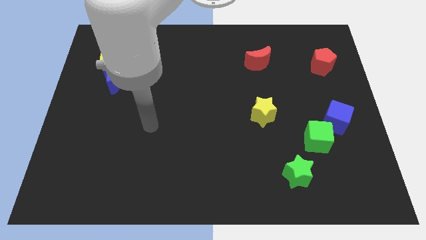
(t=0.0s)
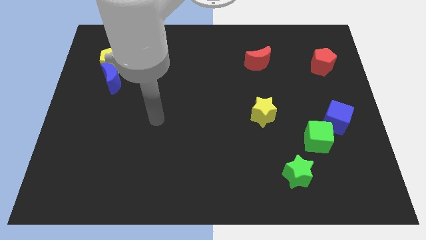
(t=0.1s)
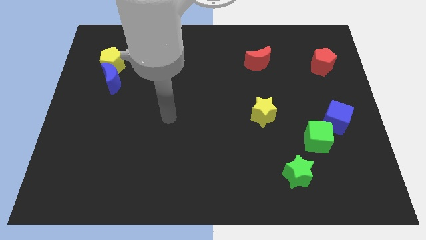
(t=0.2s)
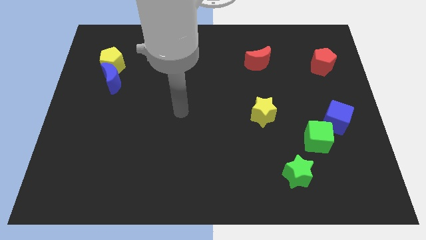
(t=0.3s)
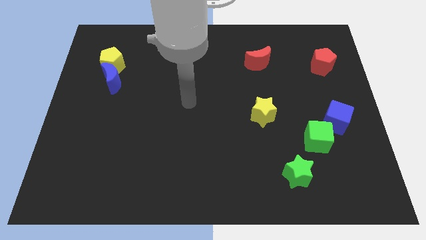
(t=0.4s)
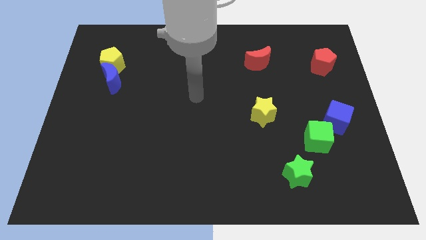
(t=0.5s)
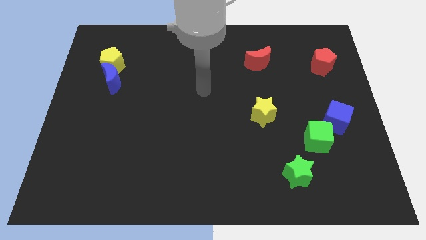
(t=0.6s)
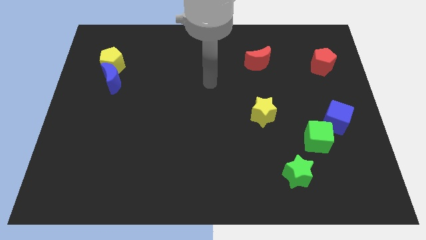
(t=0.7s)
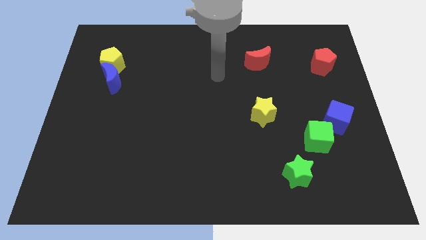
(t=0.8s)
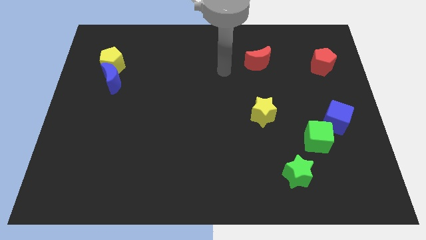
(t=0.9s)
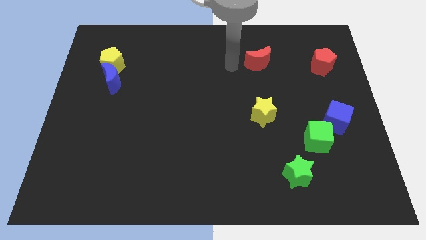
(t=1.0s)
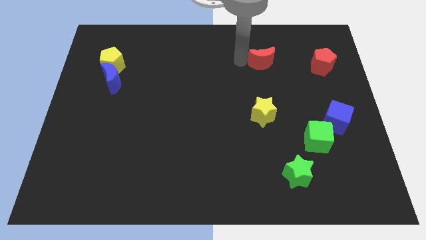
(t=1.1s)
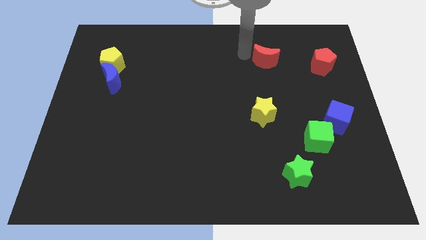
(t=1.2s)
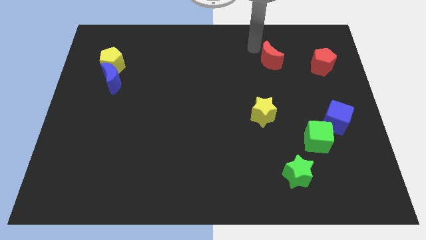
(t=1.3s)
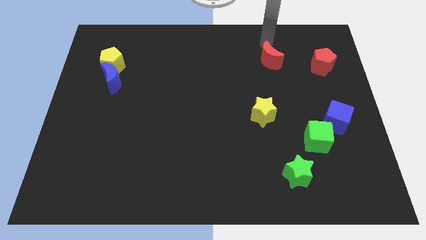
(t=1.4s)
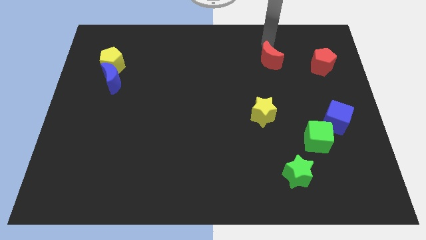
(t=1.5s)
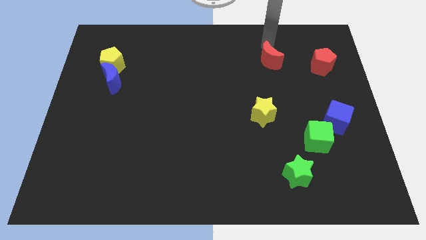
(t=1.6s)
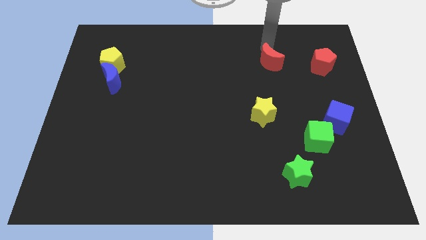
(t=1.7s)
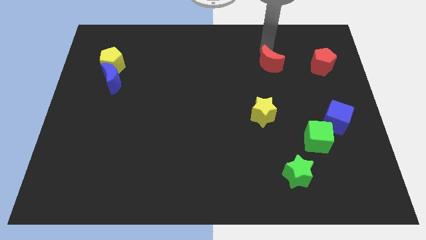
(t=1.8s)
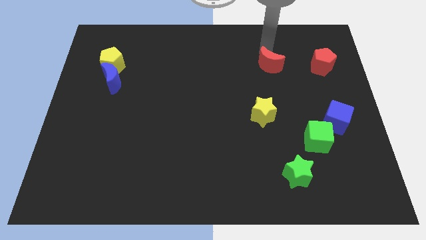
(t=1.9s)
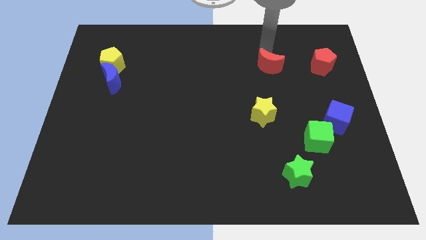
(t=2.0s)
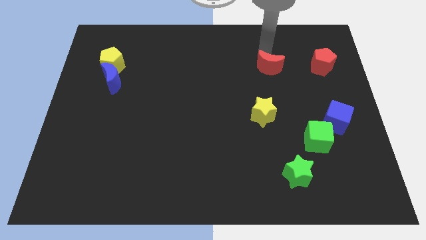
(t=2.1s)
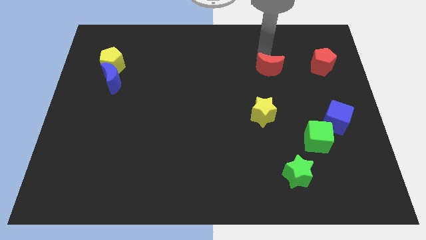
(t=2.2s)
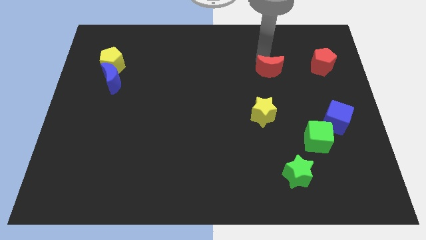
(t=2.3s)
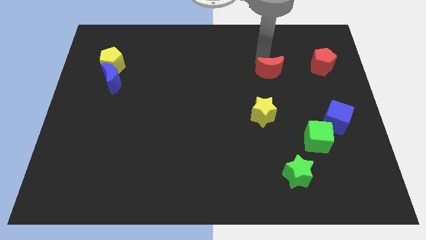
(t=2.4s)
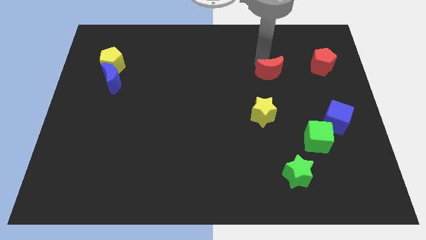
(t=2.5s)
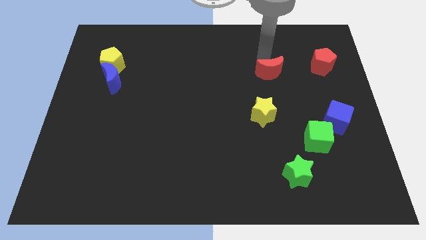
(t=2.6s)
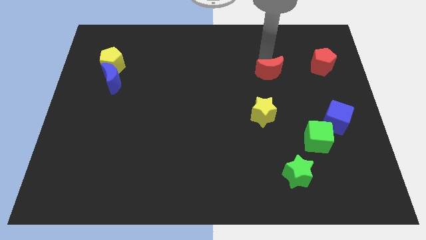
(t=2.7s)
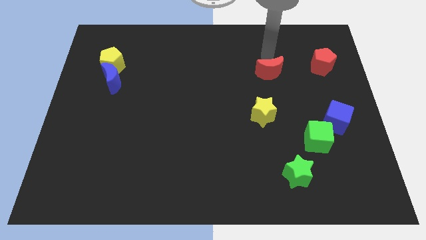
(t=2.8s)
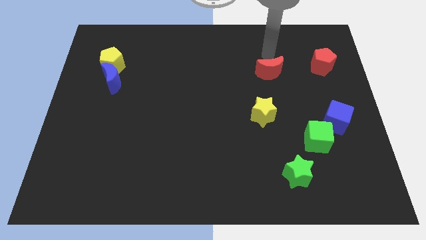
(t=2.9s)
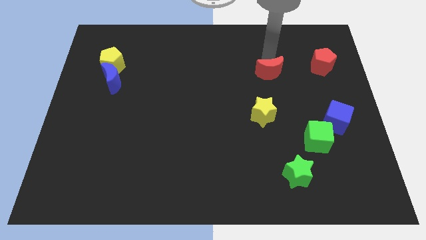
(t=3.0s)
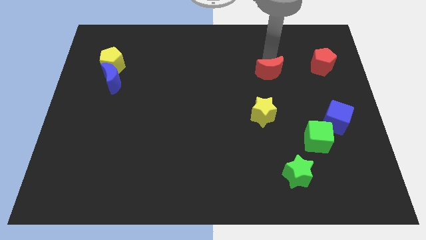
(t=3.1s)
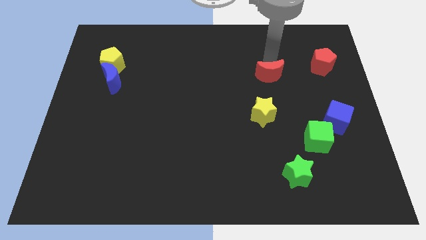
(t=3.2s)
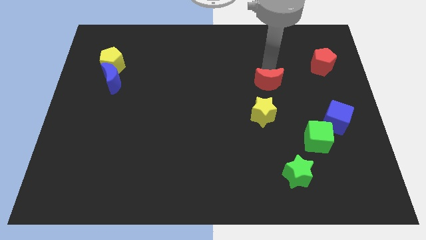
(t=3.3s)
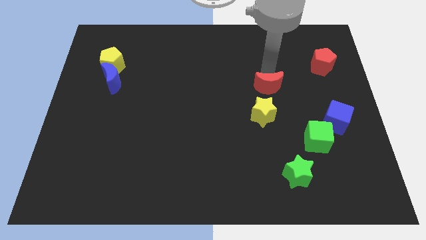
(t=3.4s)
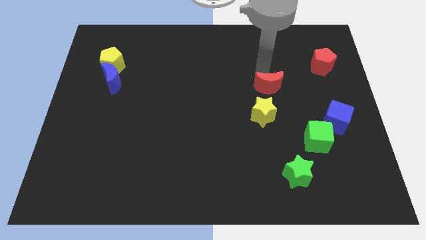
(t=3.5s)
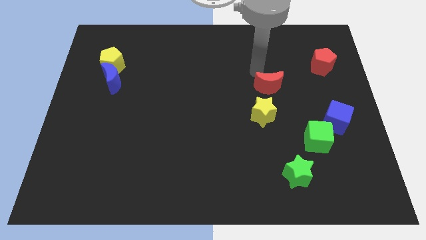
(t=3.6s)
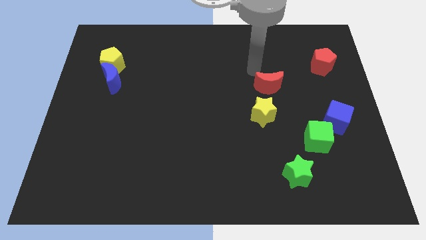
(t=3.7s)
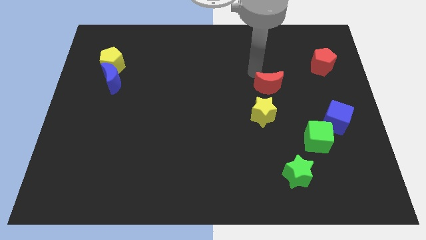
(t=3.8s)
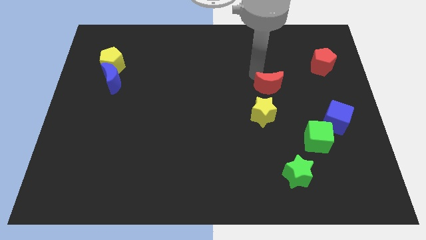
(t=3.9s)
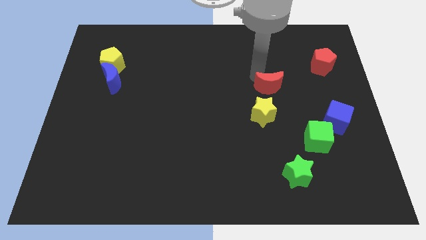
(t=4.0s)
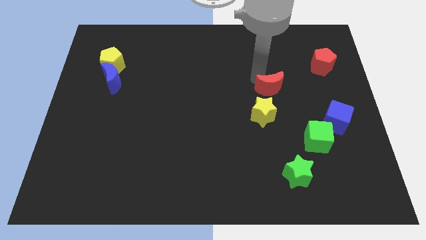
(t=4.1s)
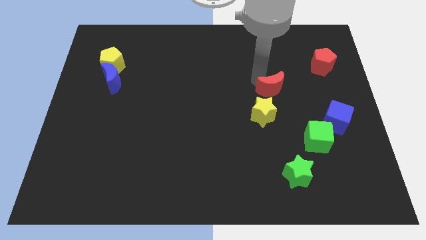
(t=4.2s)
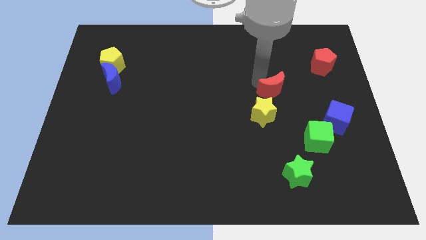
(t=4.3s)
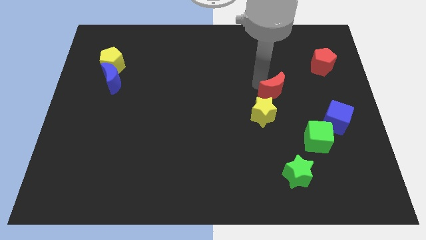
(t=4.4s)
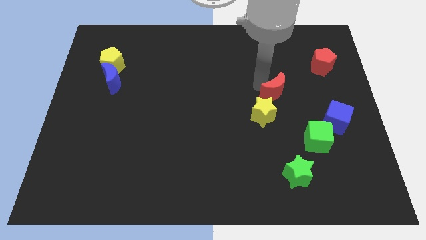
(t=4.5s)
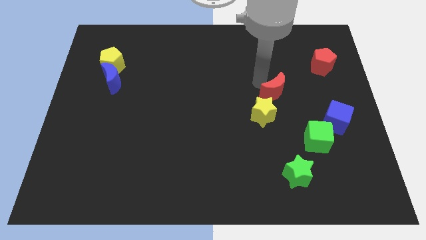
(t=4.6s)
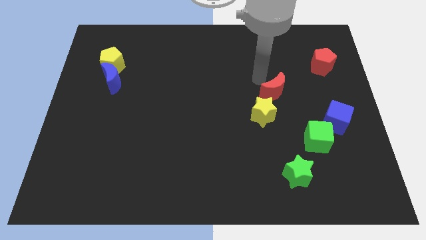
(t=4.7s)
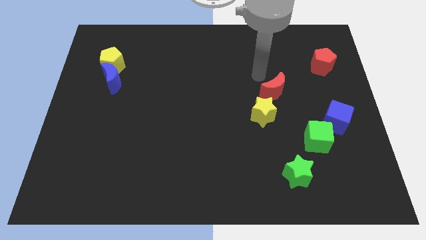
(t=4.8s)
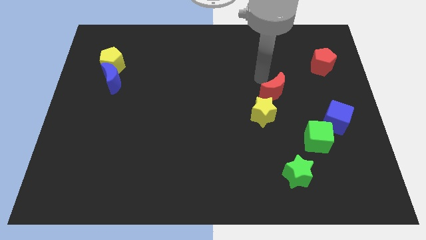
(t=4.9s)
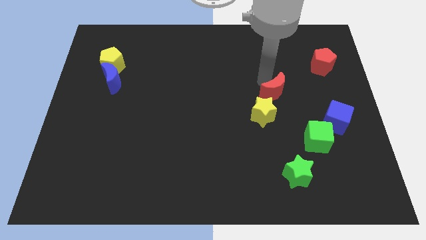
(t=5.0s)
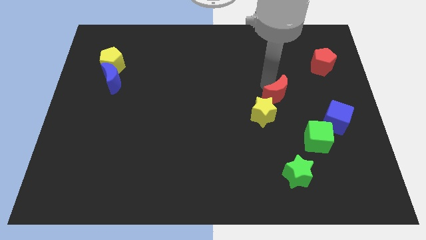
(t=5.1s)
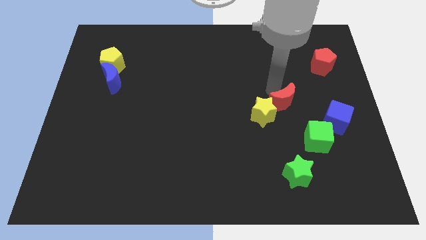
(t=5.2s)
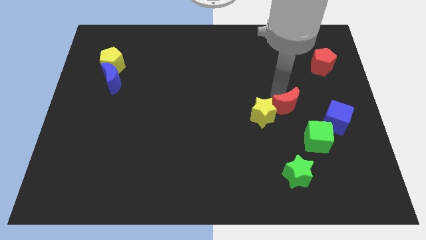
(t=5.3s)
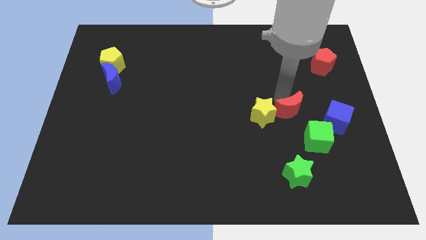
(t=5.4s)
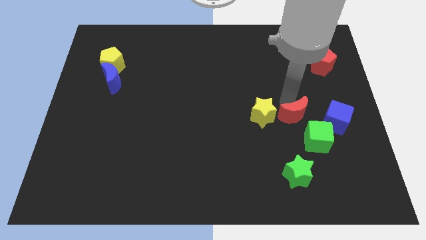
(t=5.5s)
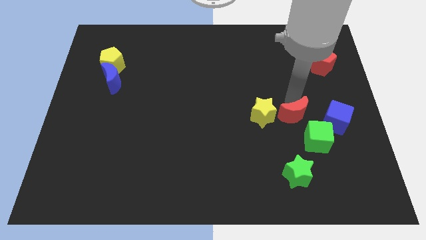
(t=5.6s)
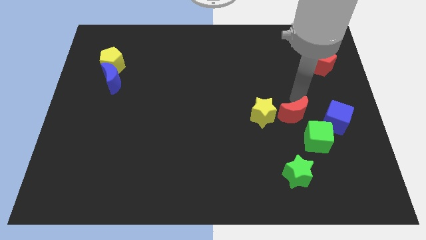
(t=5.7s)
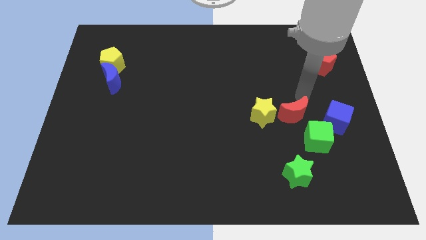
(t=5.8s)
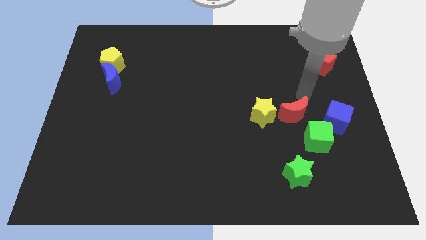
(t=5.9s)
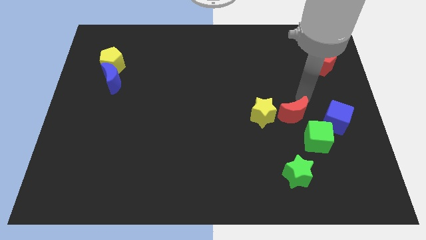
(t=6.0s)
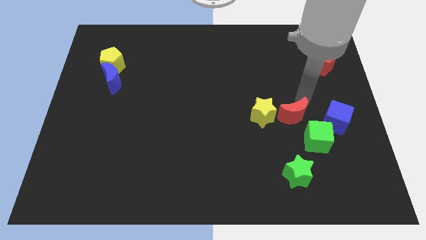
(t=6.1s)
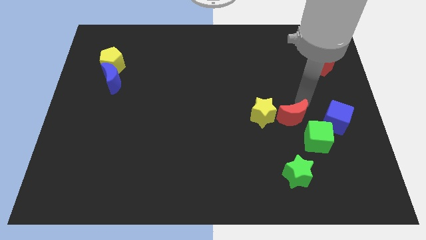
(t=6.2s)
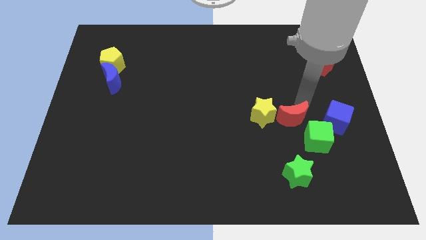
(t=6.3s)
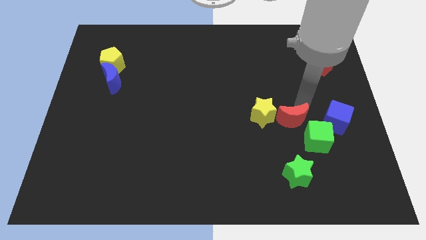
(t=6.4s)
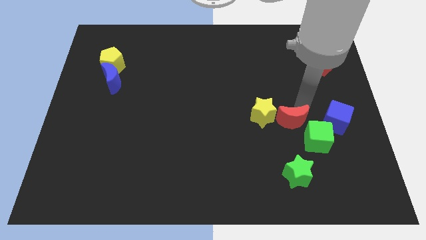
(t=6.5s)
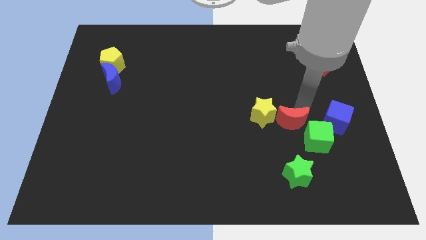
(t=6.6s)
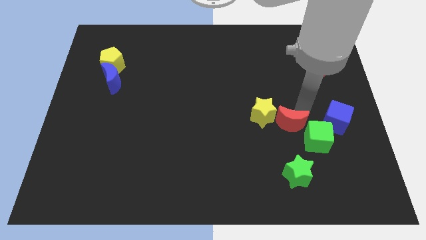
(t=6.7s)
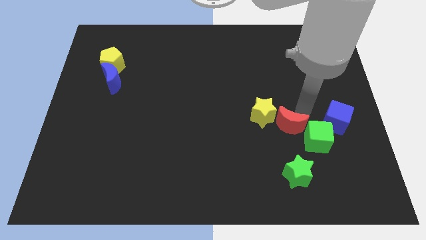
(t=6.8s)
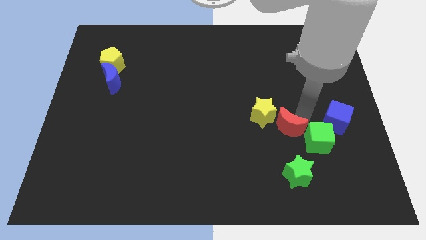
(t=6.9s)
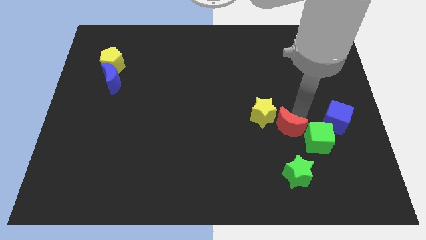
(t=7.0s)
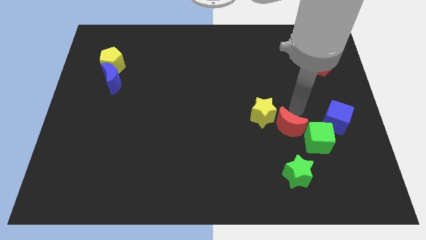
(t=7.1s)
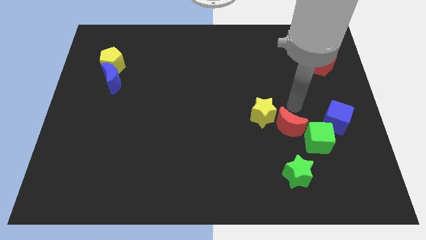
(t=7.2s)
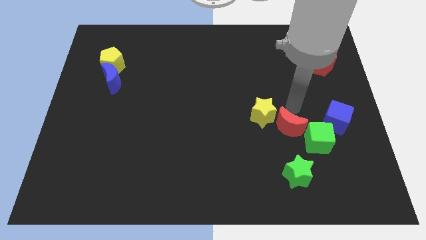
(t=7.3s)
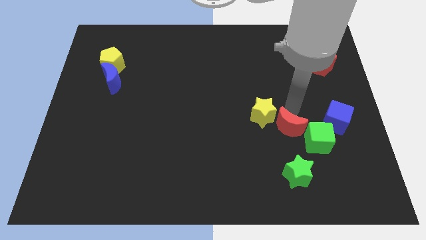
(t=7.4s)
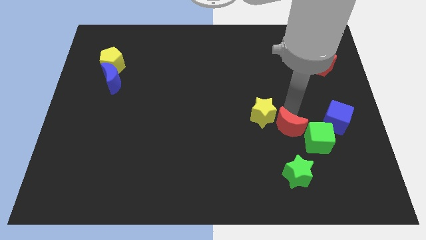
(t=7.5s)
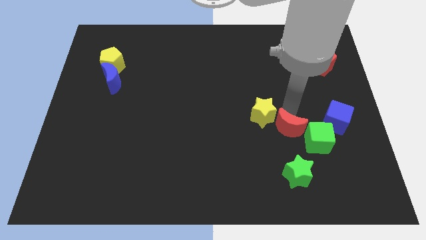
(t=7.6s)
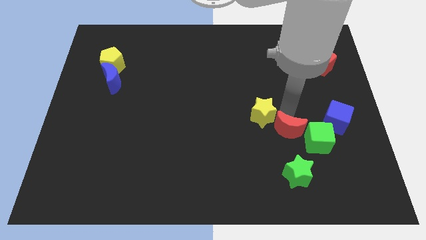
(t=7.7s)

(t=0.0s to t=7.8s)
slide the red moon downwards
